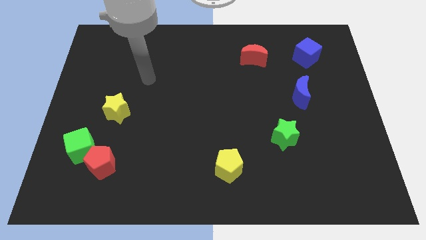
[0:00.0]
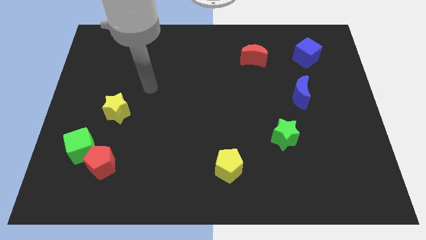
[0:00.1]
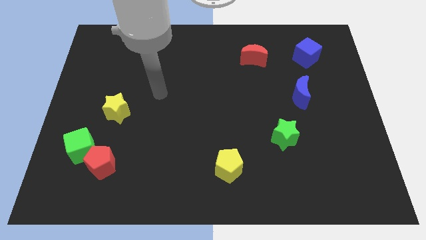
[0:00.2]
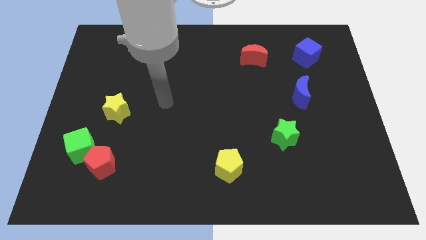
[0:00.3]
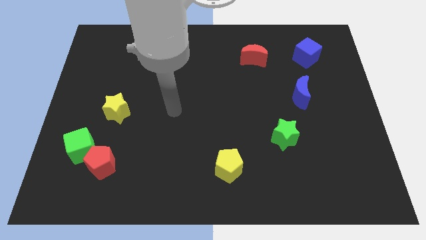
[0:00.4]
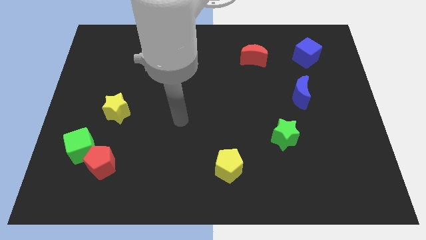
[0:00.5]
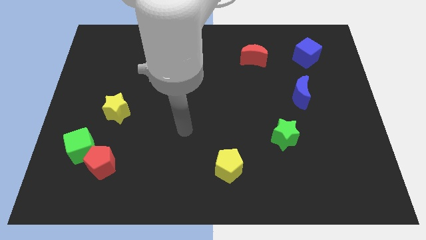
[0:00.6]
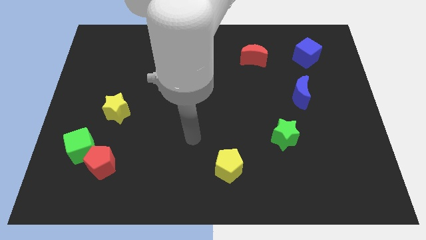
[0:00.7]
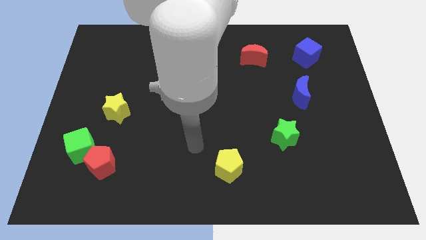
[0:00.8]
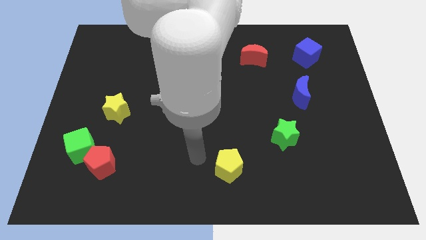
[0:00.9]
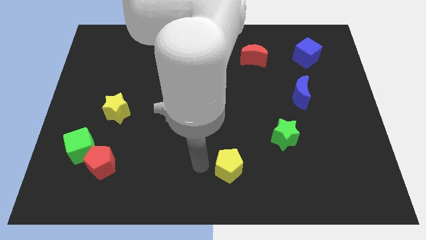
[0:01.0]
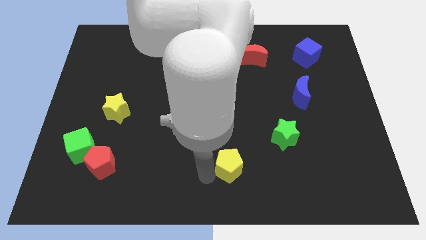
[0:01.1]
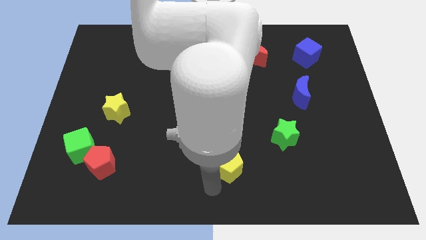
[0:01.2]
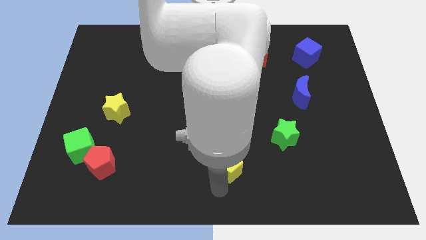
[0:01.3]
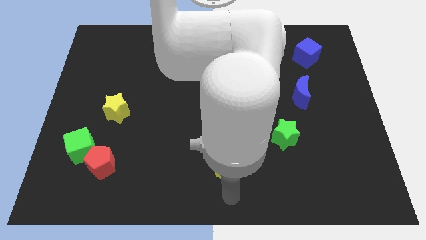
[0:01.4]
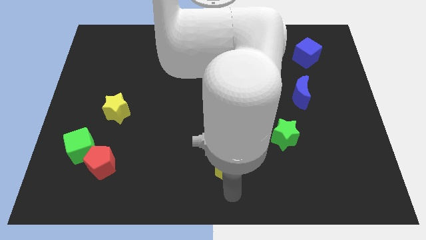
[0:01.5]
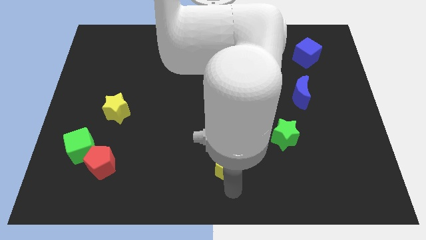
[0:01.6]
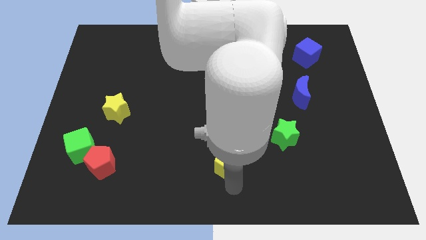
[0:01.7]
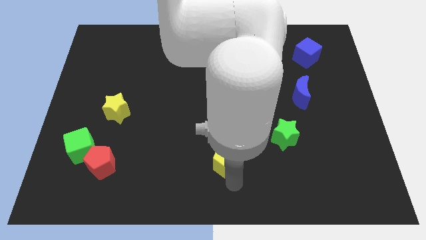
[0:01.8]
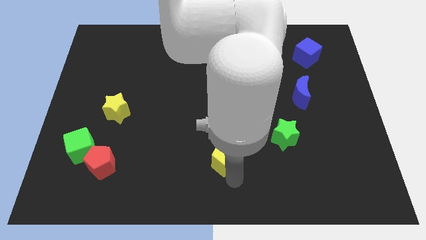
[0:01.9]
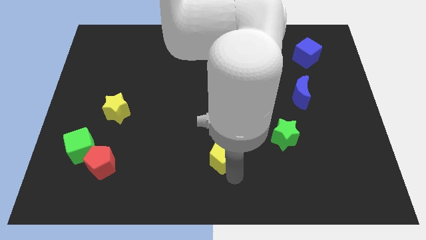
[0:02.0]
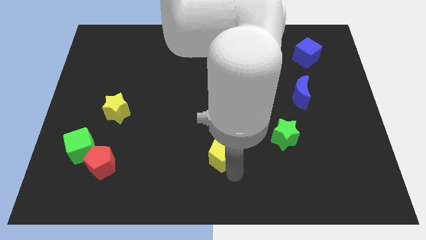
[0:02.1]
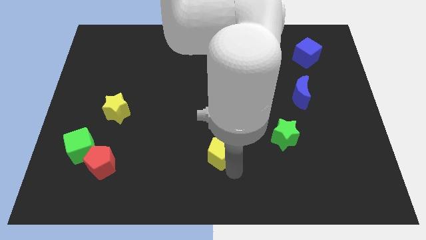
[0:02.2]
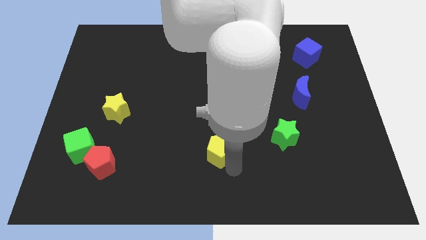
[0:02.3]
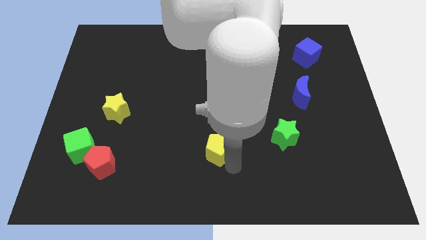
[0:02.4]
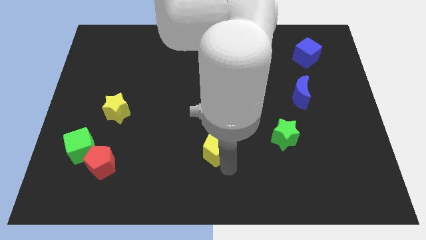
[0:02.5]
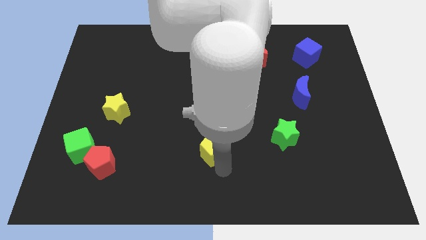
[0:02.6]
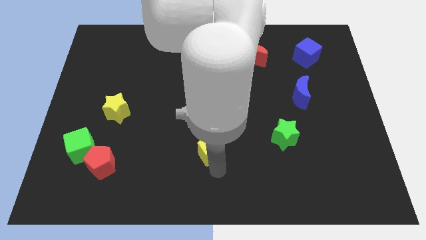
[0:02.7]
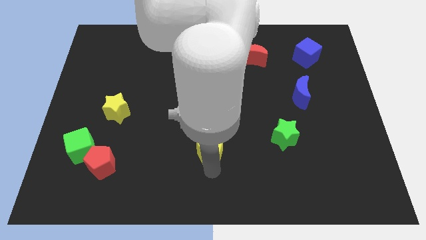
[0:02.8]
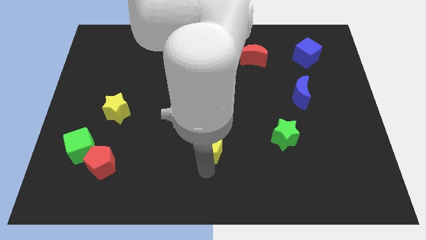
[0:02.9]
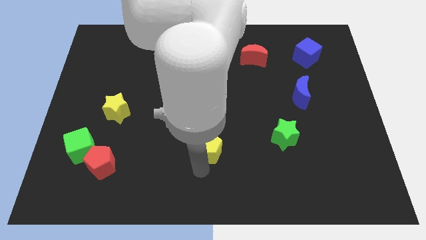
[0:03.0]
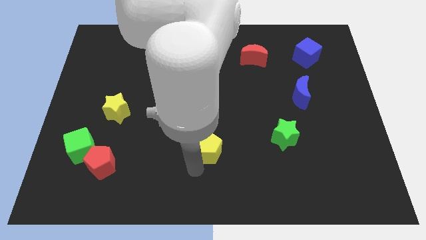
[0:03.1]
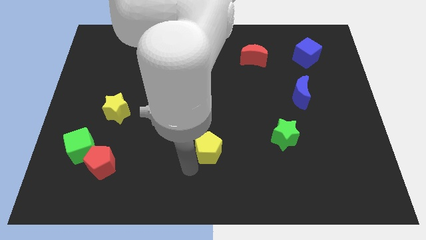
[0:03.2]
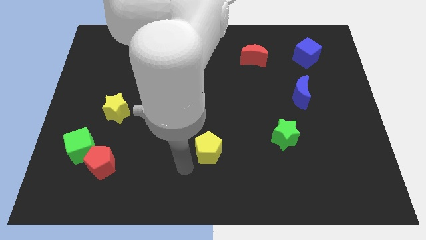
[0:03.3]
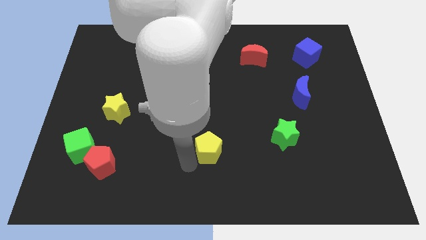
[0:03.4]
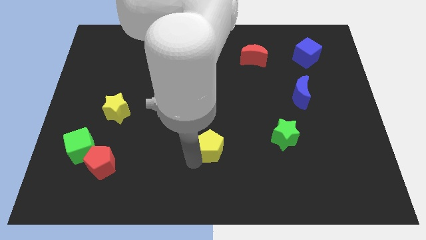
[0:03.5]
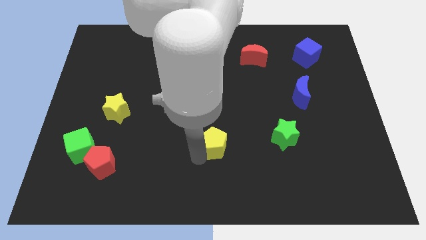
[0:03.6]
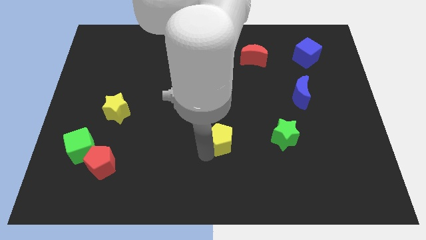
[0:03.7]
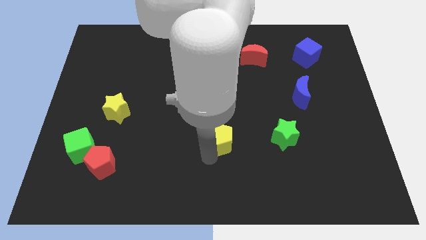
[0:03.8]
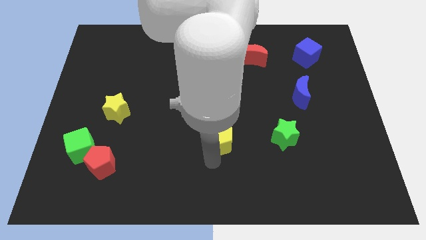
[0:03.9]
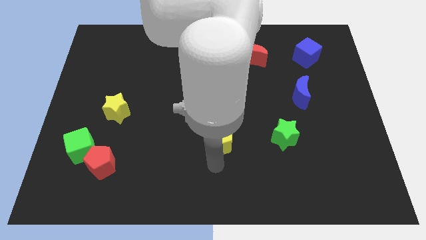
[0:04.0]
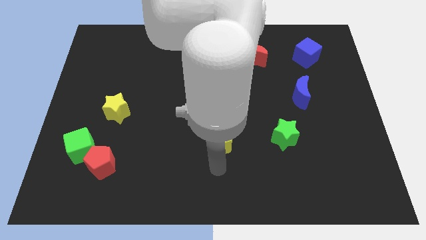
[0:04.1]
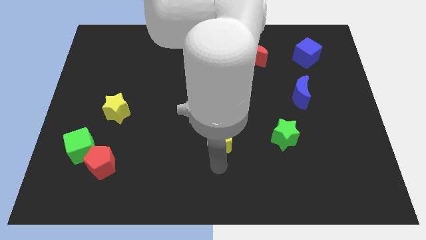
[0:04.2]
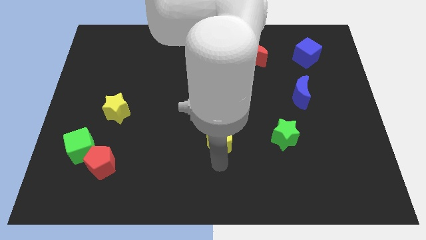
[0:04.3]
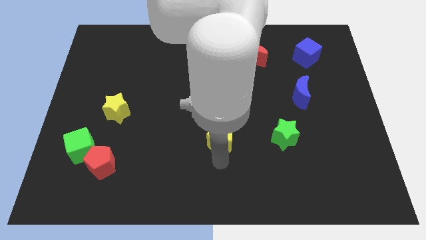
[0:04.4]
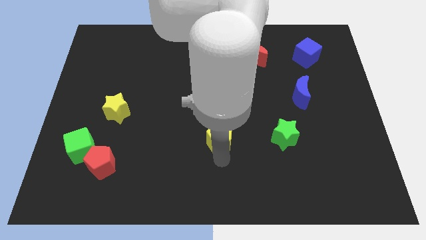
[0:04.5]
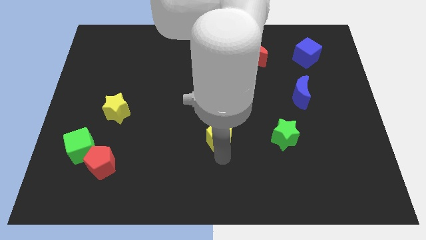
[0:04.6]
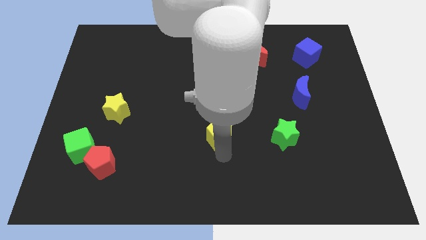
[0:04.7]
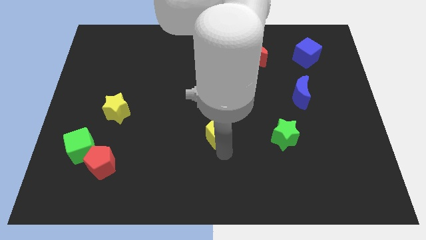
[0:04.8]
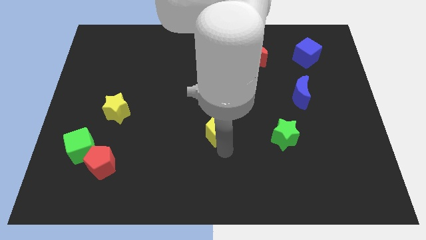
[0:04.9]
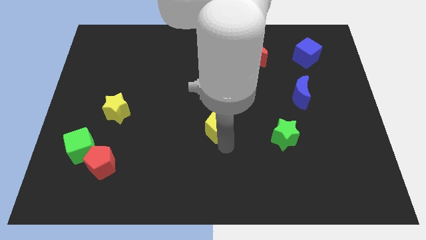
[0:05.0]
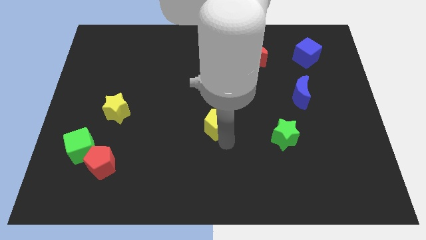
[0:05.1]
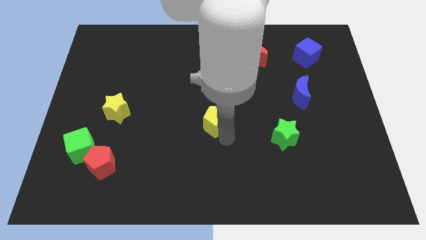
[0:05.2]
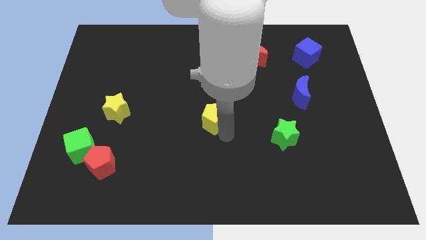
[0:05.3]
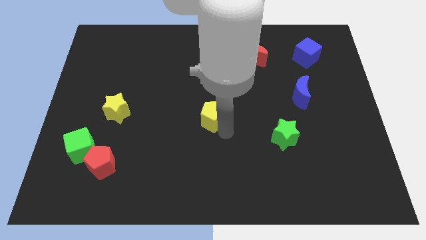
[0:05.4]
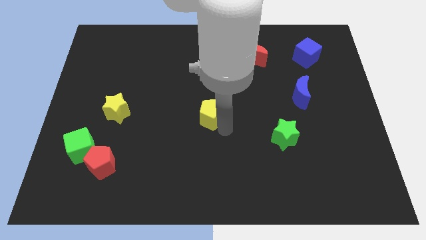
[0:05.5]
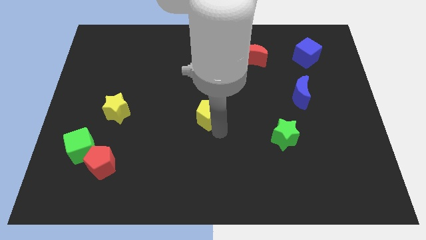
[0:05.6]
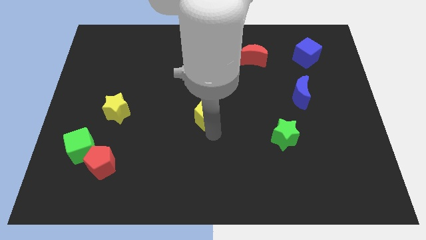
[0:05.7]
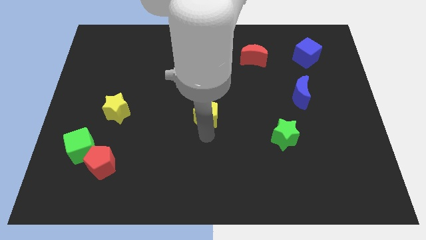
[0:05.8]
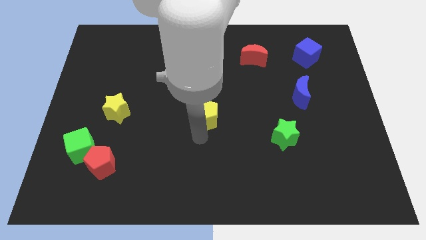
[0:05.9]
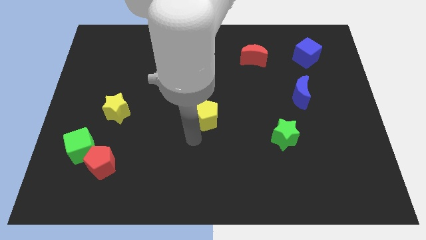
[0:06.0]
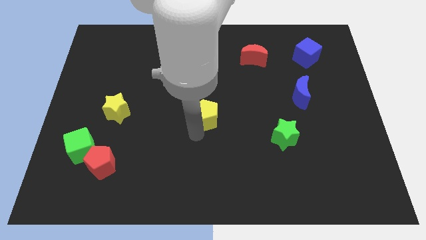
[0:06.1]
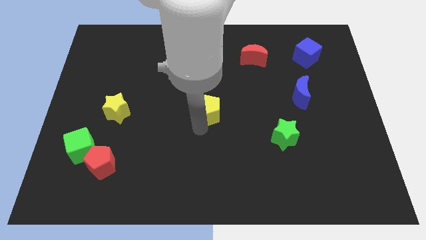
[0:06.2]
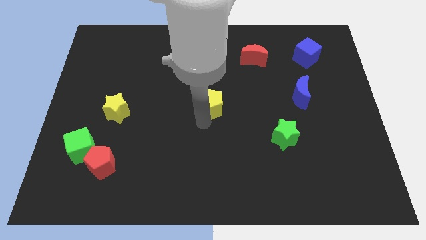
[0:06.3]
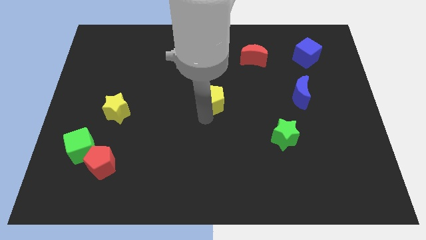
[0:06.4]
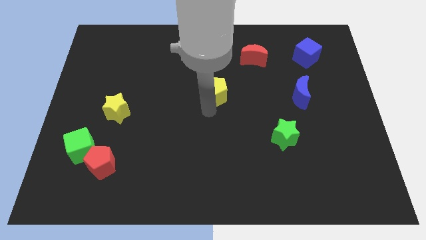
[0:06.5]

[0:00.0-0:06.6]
move the yellow pentagon upwards

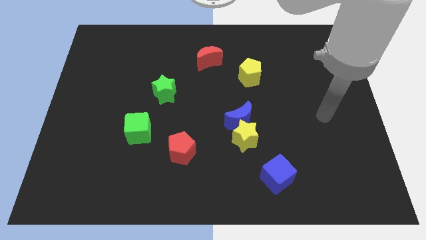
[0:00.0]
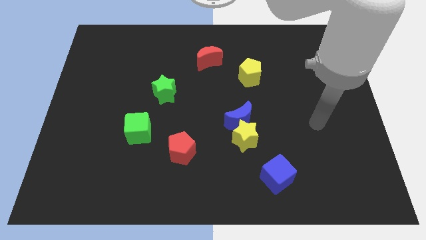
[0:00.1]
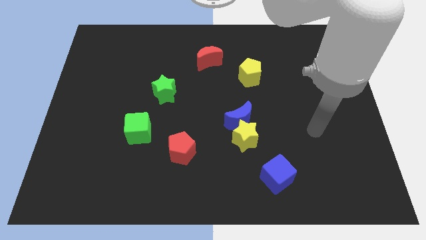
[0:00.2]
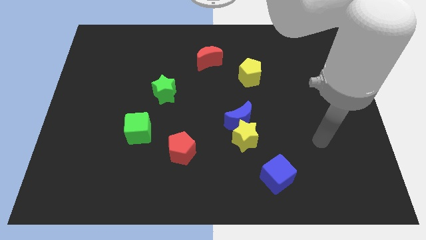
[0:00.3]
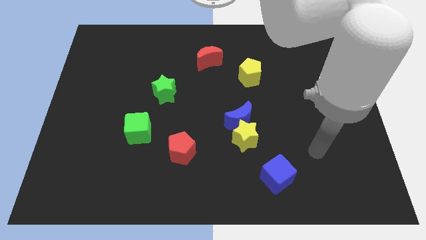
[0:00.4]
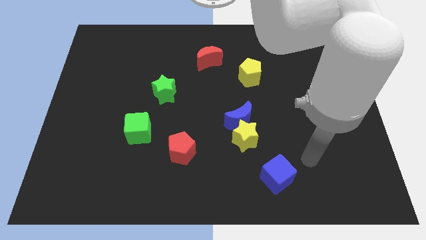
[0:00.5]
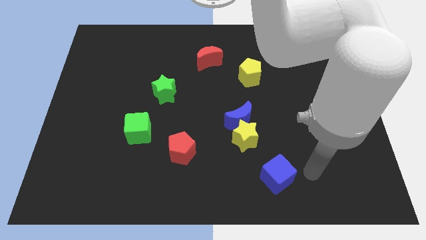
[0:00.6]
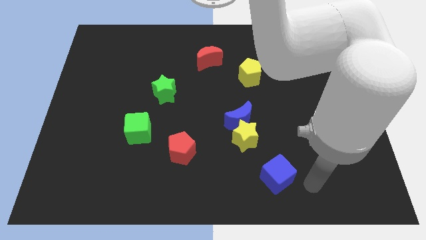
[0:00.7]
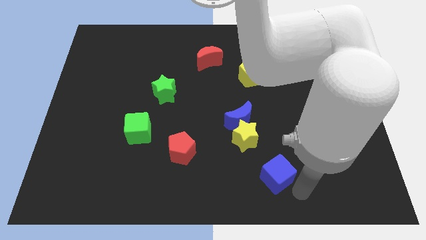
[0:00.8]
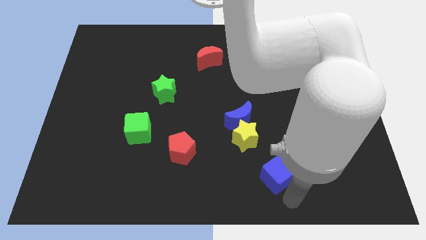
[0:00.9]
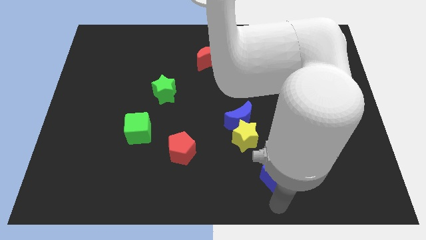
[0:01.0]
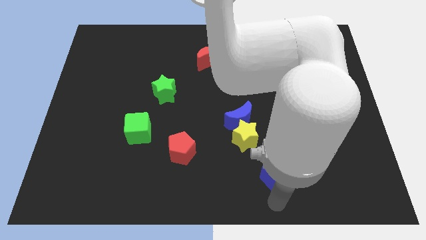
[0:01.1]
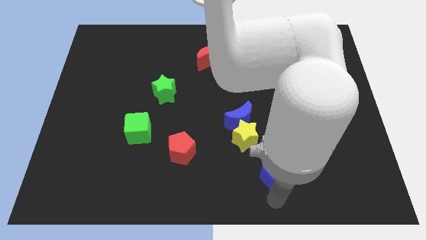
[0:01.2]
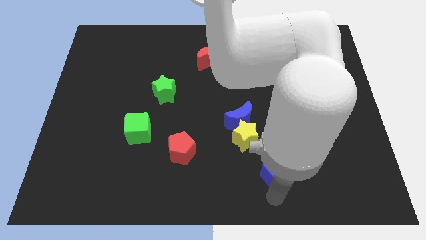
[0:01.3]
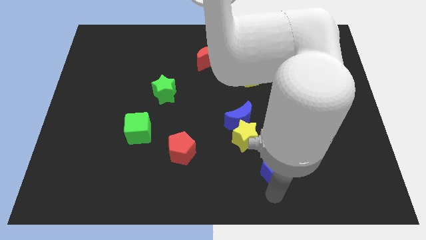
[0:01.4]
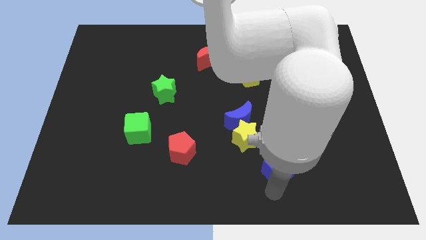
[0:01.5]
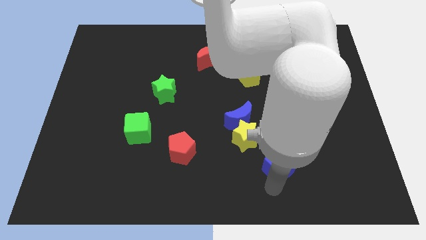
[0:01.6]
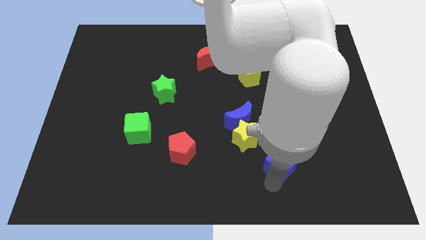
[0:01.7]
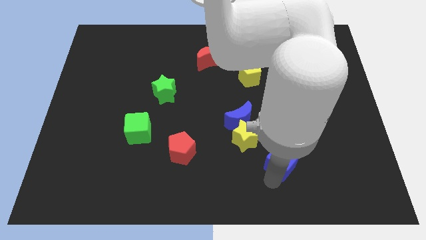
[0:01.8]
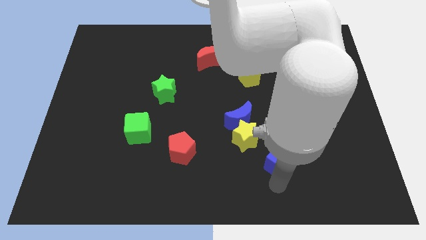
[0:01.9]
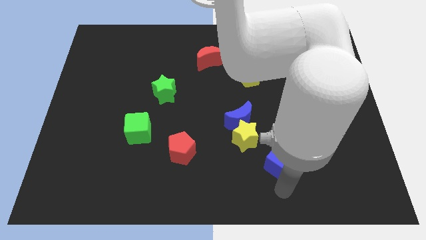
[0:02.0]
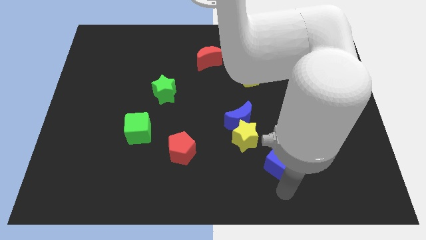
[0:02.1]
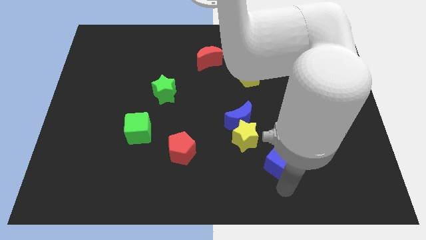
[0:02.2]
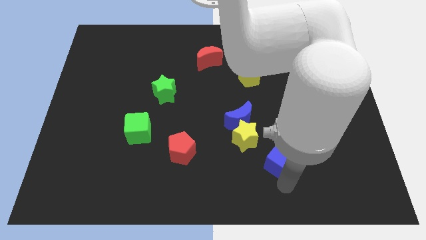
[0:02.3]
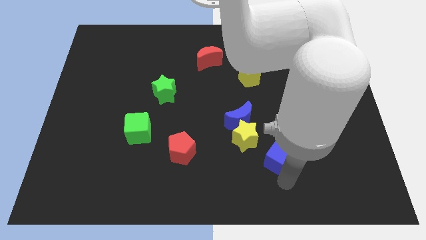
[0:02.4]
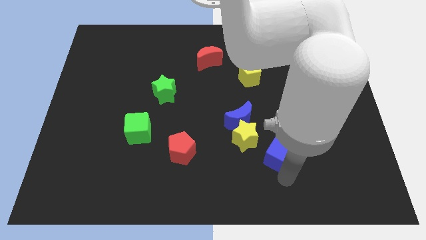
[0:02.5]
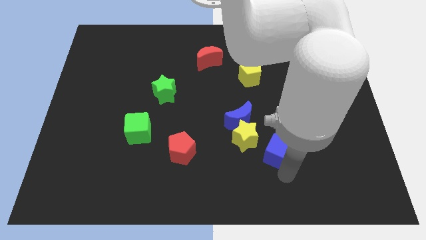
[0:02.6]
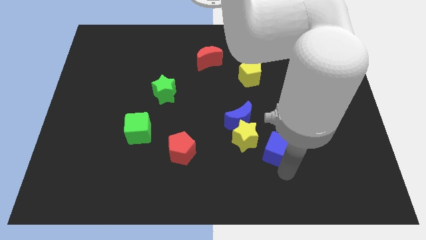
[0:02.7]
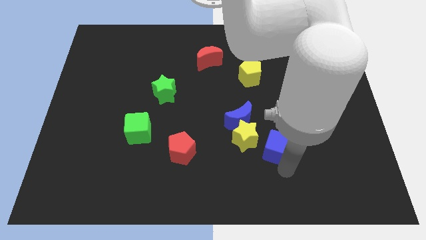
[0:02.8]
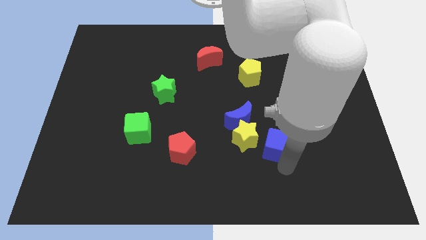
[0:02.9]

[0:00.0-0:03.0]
push the blue cube up a little bit
